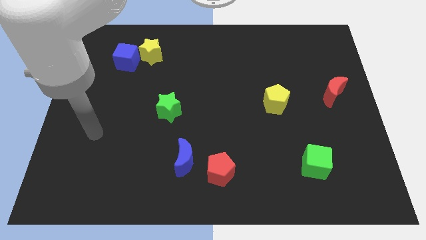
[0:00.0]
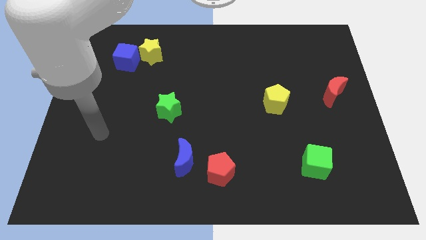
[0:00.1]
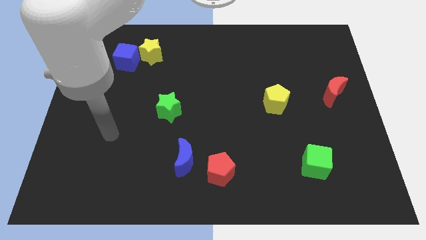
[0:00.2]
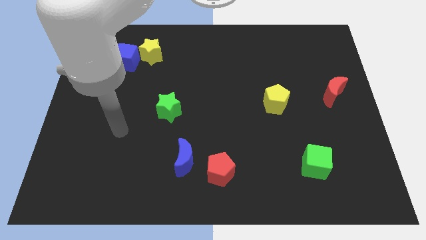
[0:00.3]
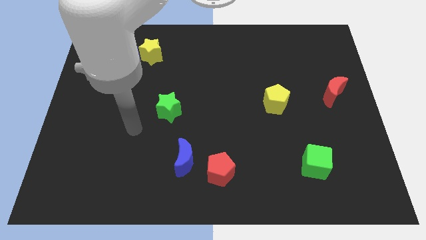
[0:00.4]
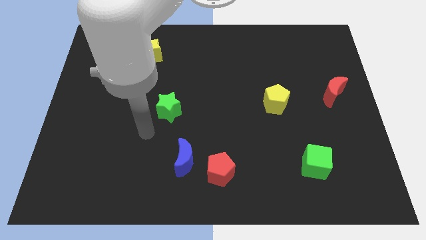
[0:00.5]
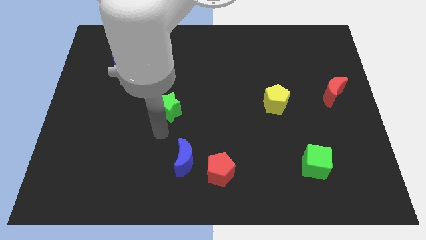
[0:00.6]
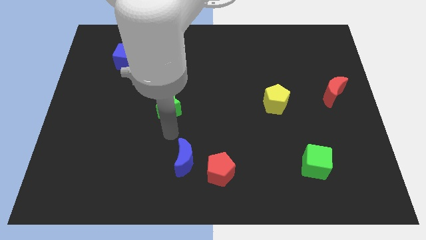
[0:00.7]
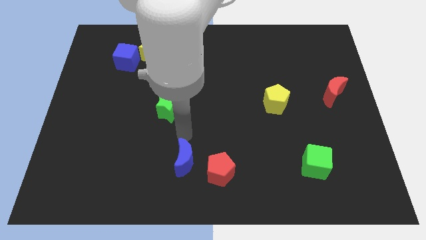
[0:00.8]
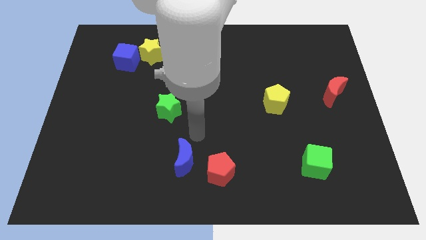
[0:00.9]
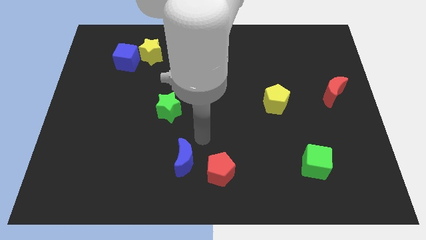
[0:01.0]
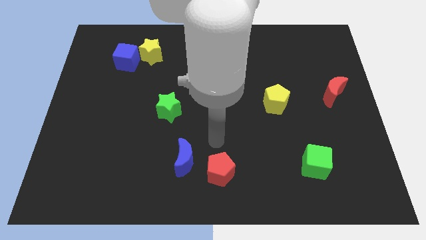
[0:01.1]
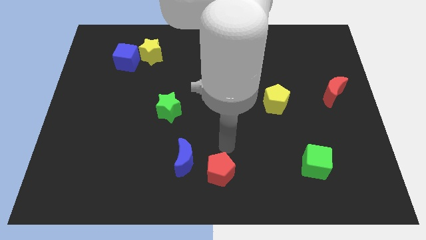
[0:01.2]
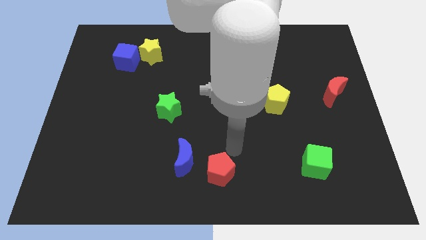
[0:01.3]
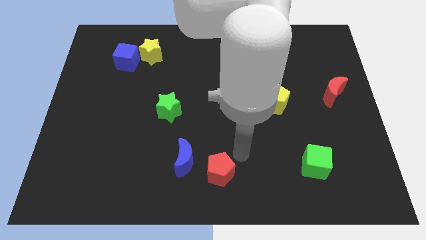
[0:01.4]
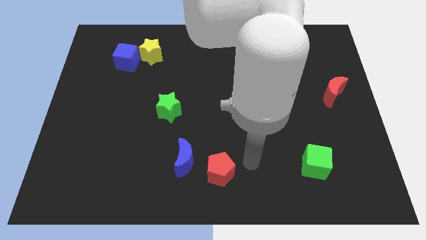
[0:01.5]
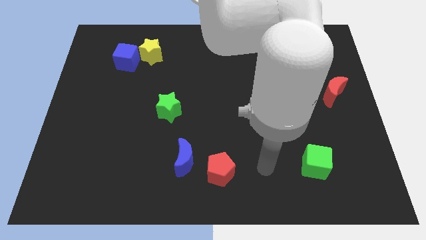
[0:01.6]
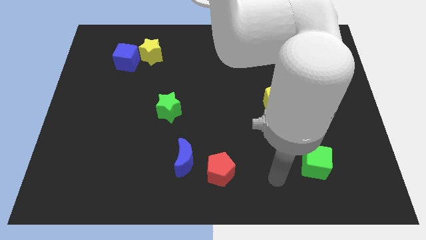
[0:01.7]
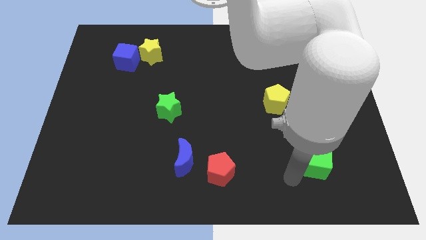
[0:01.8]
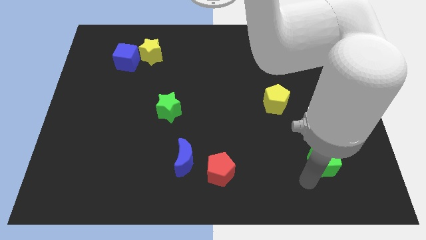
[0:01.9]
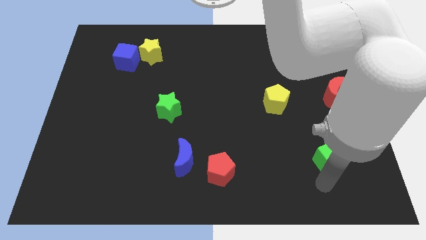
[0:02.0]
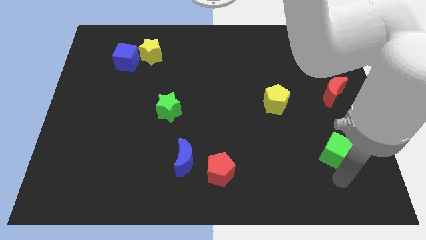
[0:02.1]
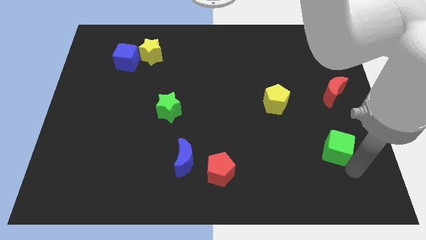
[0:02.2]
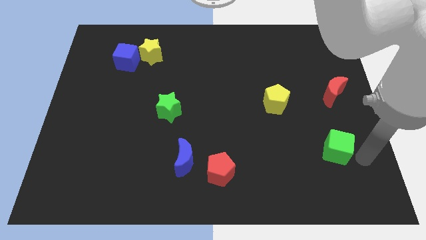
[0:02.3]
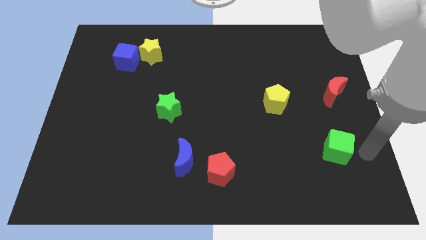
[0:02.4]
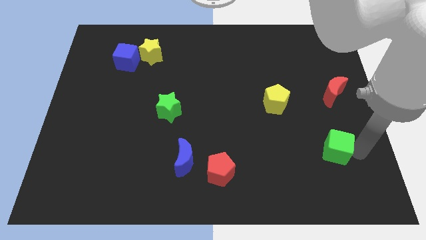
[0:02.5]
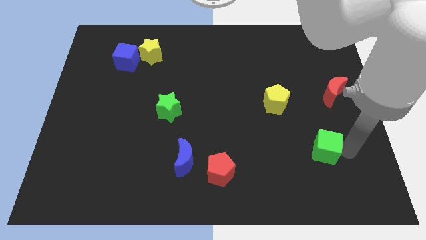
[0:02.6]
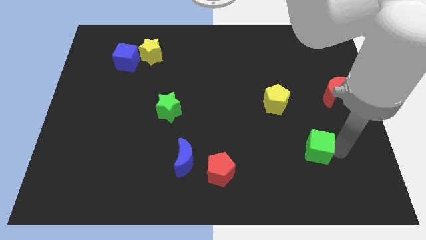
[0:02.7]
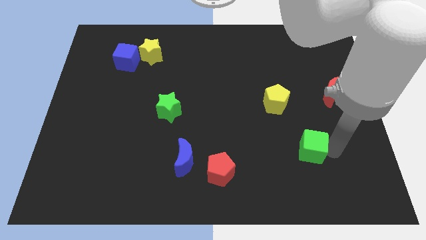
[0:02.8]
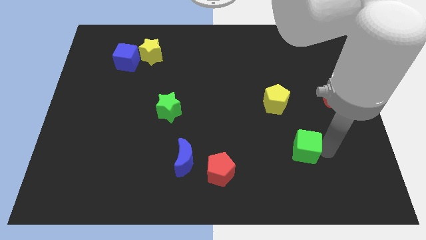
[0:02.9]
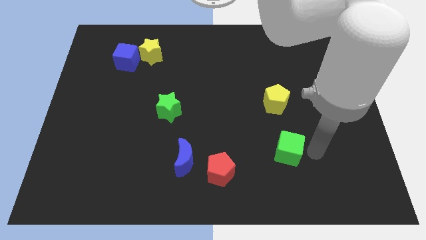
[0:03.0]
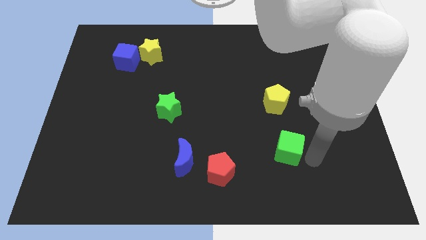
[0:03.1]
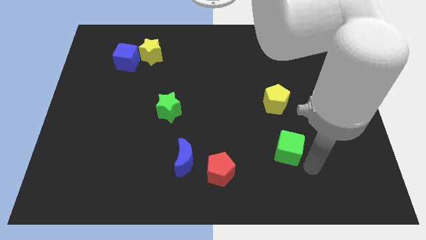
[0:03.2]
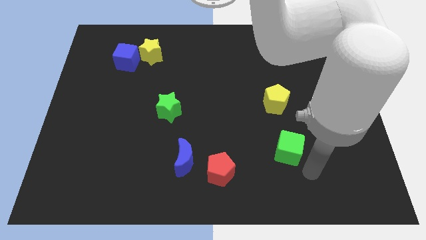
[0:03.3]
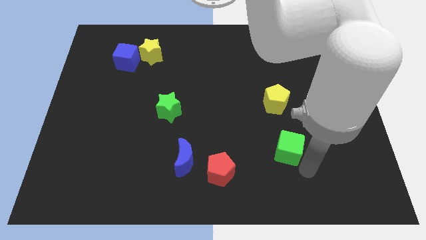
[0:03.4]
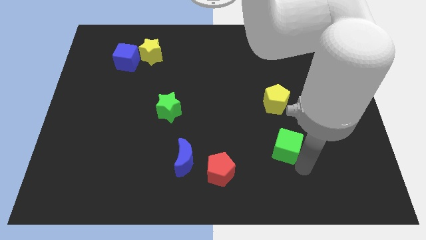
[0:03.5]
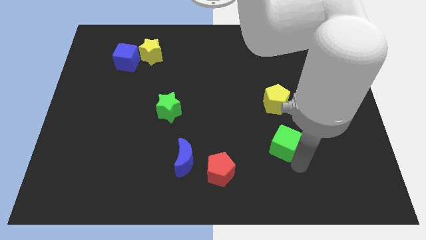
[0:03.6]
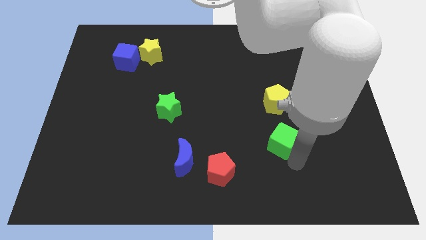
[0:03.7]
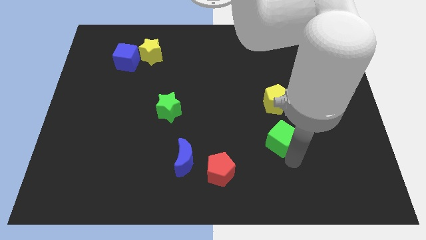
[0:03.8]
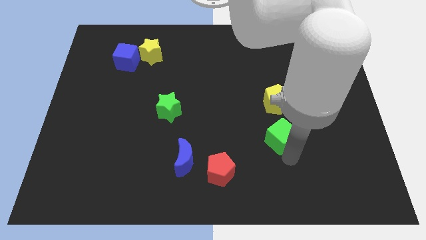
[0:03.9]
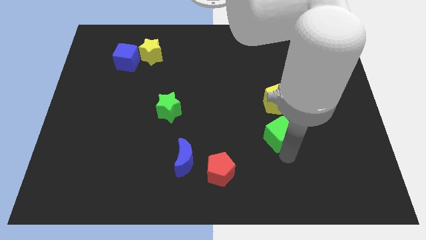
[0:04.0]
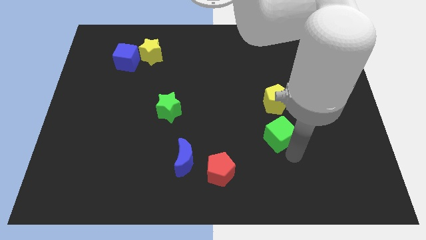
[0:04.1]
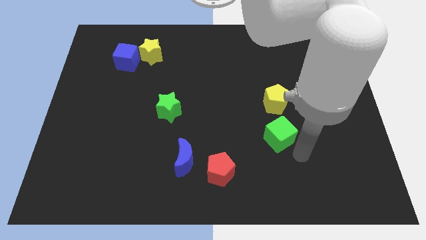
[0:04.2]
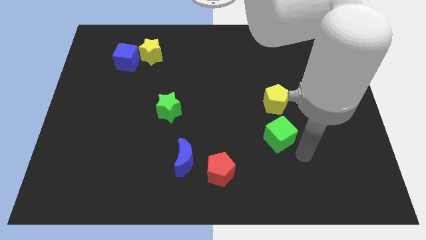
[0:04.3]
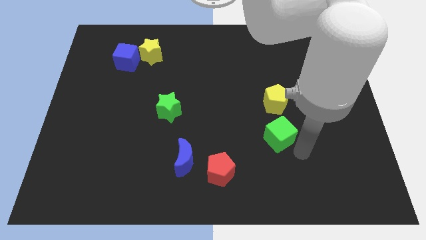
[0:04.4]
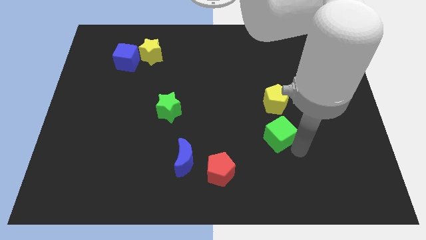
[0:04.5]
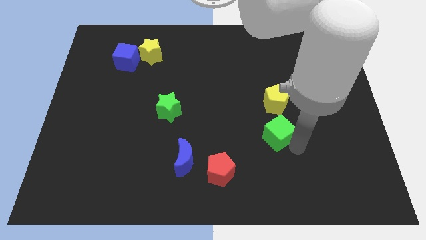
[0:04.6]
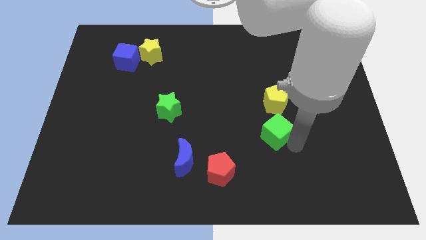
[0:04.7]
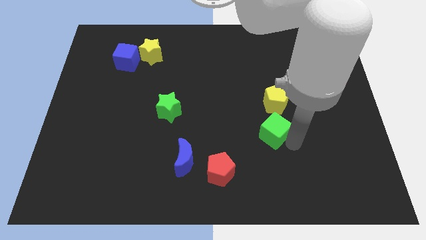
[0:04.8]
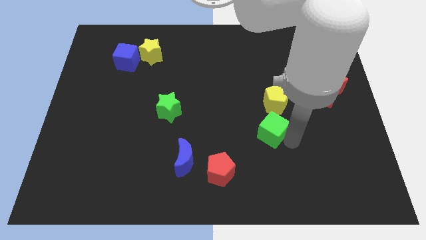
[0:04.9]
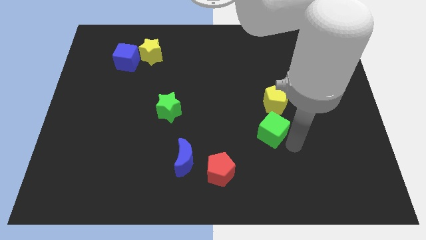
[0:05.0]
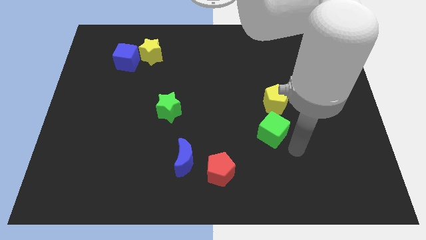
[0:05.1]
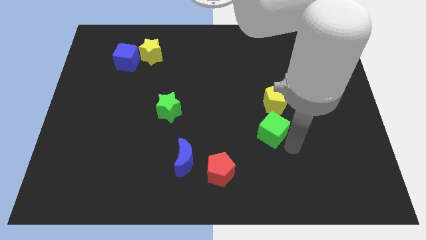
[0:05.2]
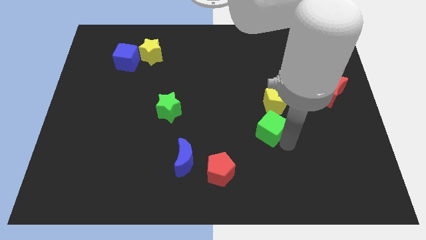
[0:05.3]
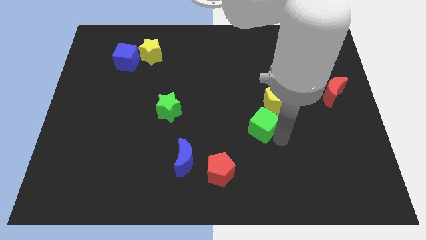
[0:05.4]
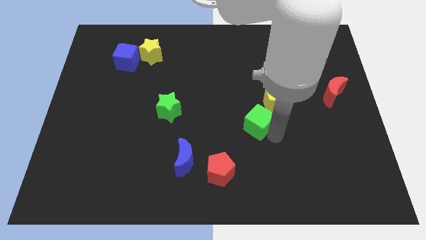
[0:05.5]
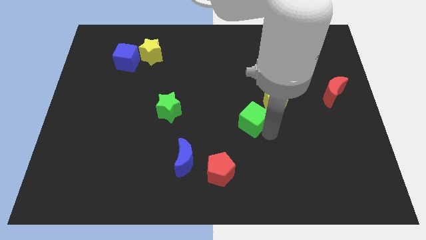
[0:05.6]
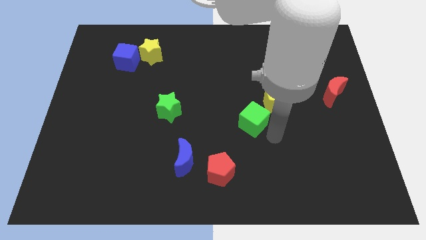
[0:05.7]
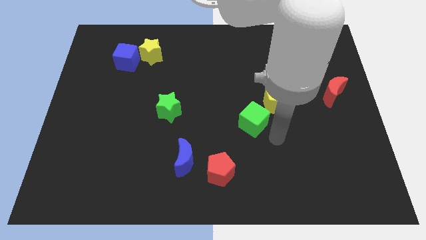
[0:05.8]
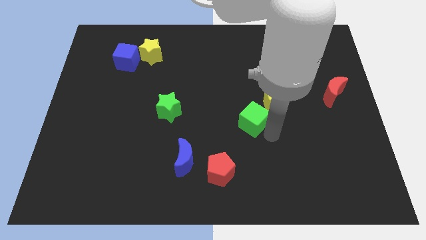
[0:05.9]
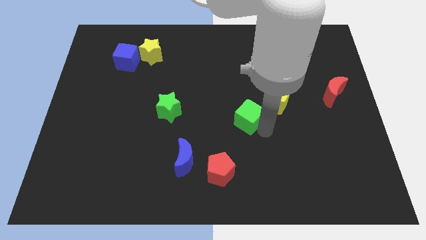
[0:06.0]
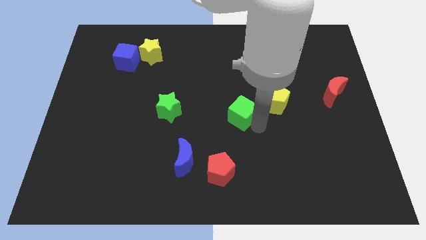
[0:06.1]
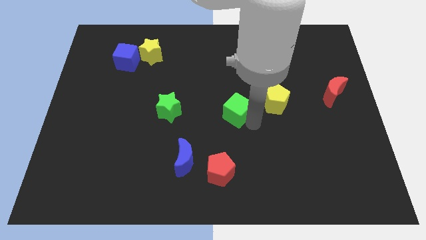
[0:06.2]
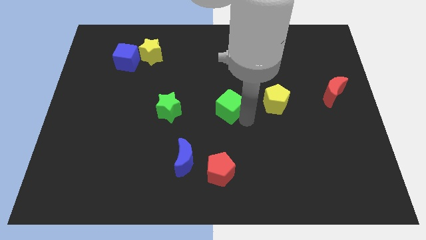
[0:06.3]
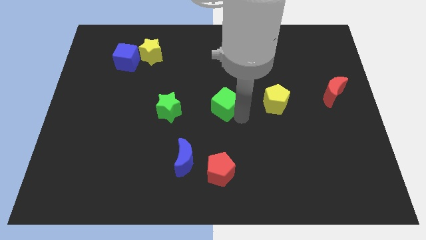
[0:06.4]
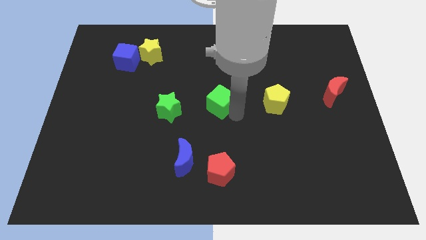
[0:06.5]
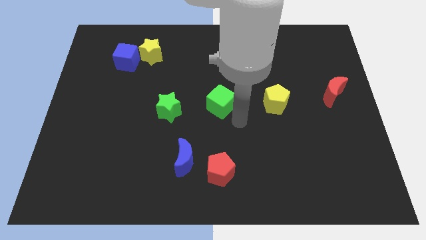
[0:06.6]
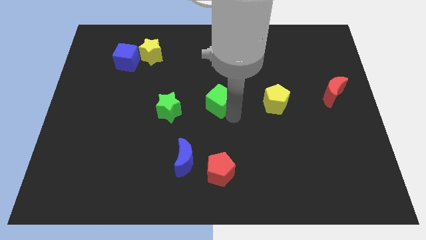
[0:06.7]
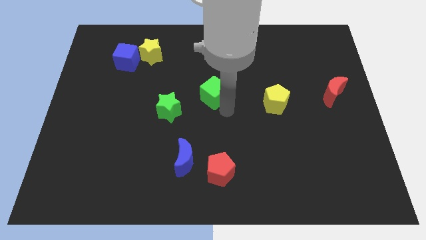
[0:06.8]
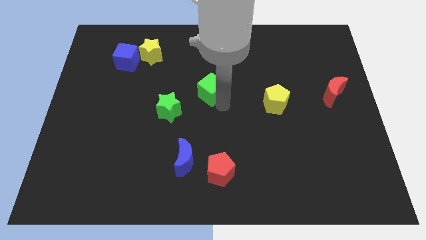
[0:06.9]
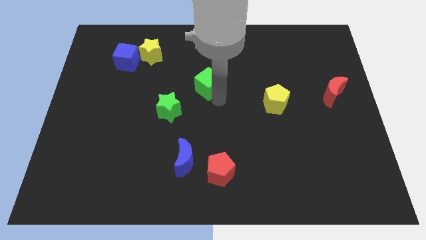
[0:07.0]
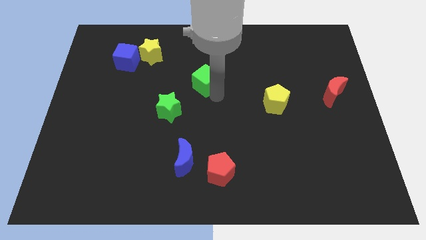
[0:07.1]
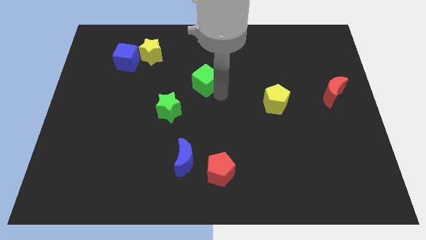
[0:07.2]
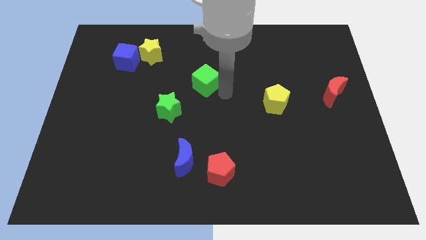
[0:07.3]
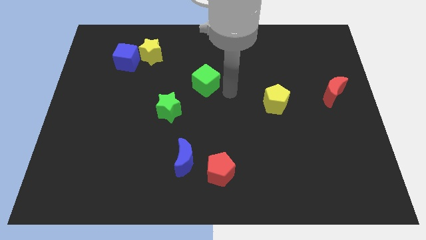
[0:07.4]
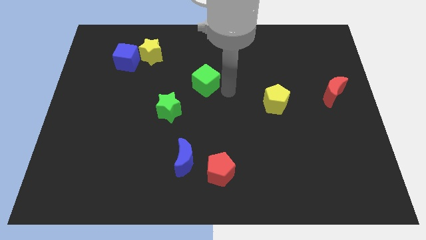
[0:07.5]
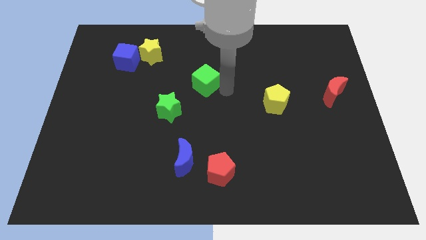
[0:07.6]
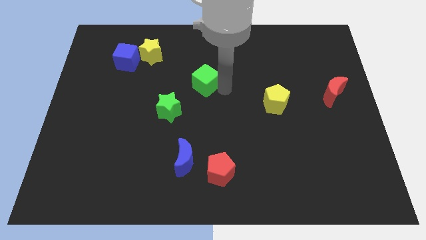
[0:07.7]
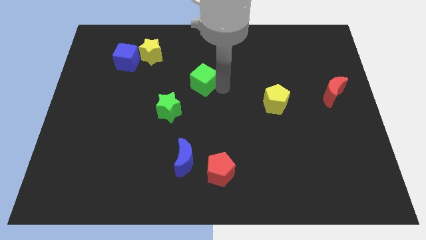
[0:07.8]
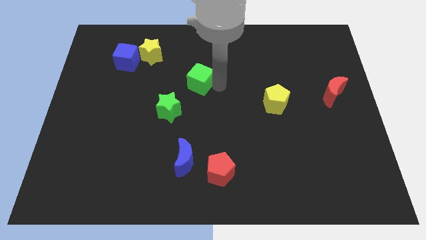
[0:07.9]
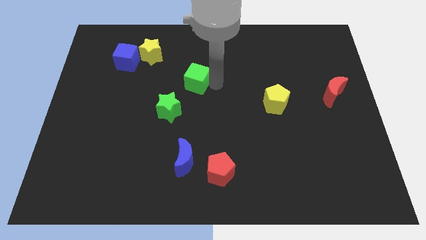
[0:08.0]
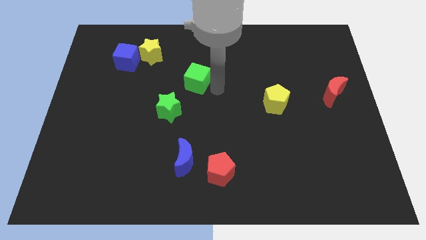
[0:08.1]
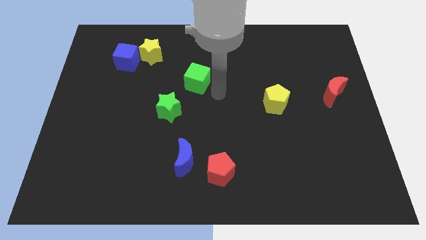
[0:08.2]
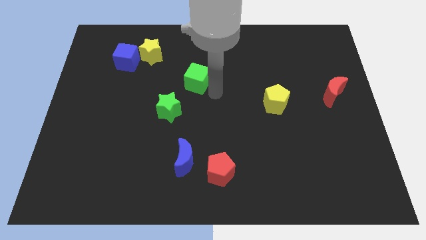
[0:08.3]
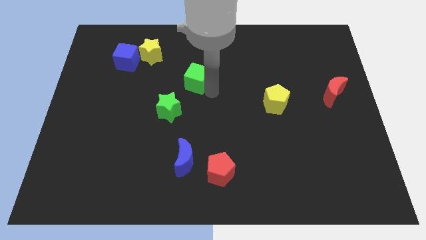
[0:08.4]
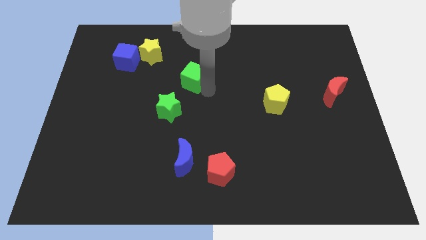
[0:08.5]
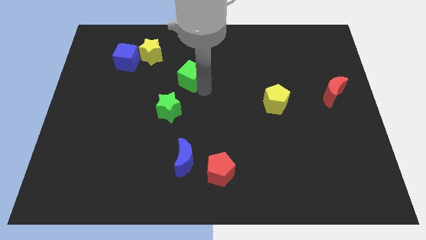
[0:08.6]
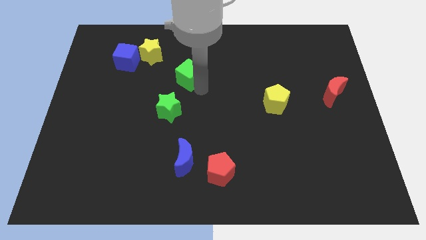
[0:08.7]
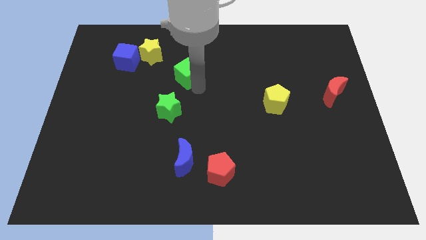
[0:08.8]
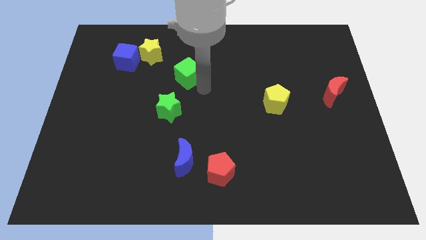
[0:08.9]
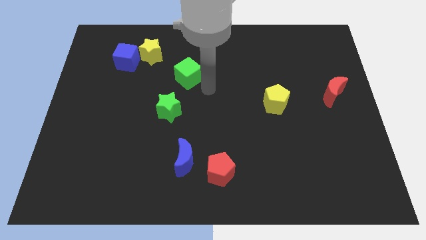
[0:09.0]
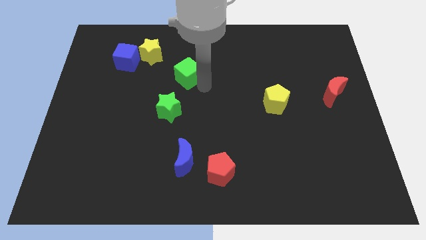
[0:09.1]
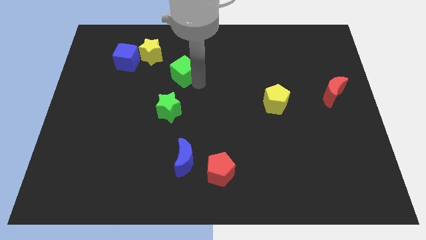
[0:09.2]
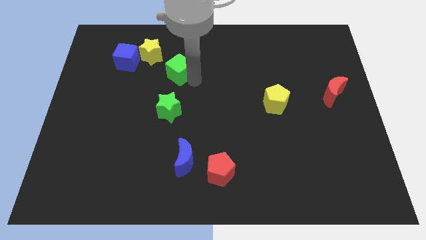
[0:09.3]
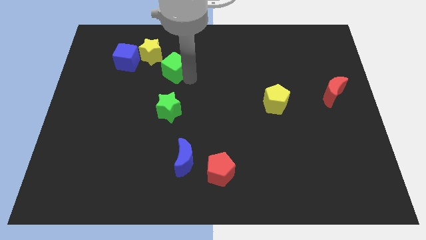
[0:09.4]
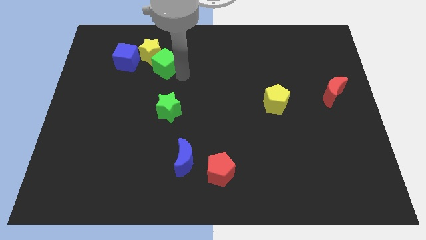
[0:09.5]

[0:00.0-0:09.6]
move the green cube to the yellow star
